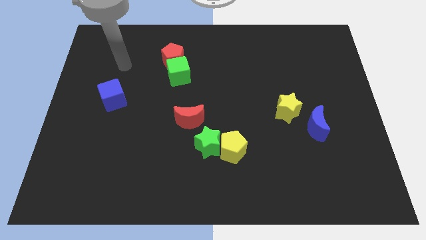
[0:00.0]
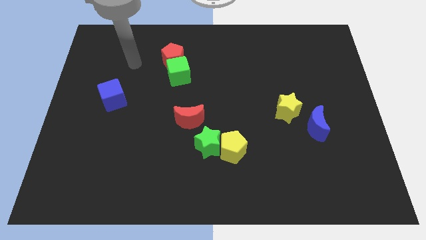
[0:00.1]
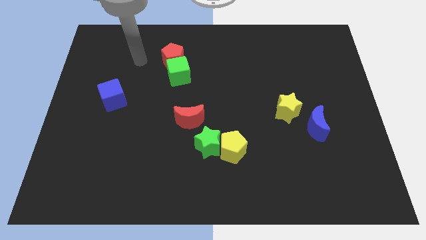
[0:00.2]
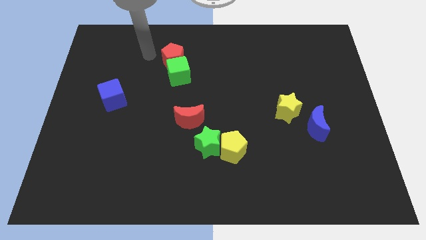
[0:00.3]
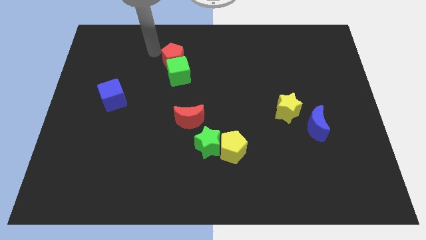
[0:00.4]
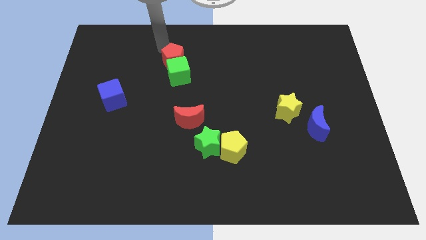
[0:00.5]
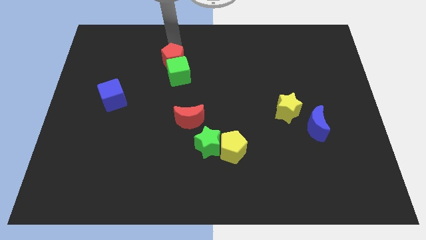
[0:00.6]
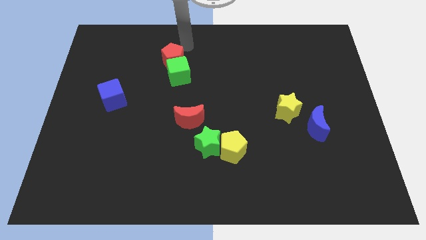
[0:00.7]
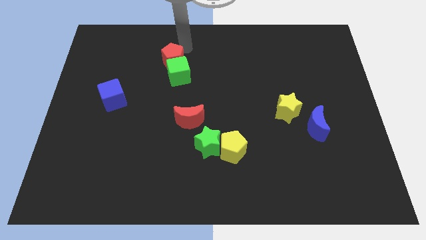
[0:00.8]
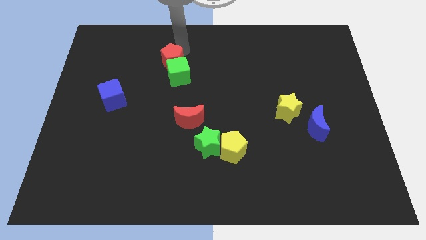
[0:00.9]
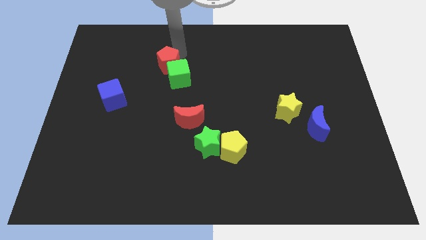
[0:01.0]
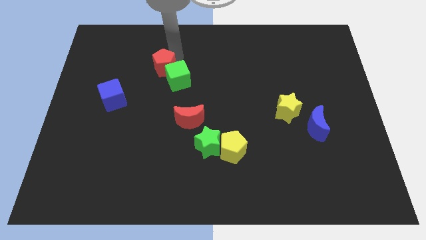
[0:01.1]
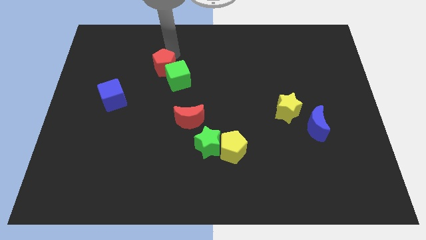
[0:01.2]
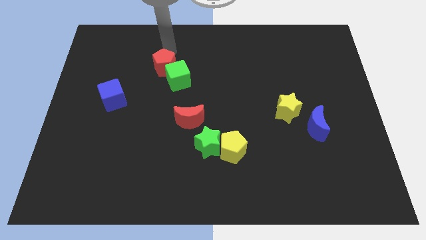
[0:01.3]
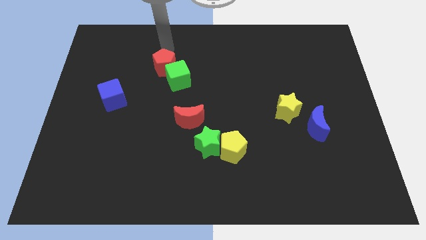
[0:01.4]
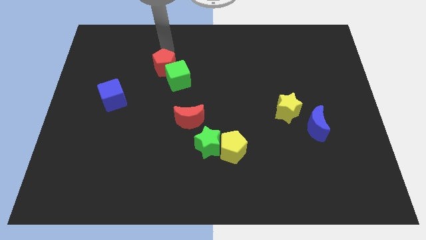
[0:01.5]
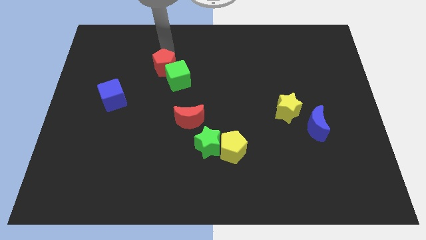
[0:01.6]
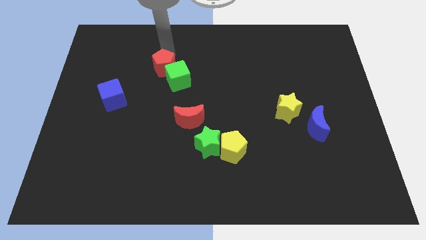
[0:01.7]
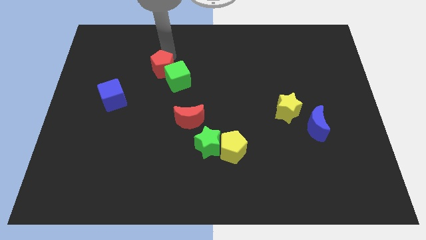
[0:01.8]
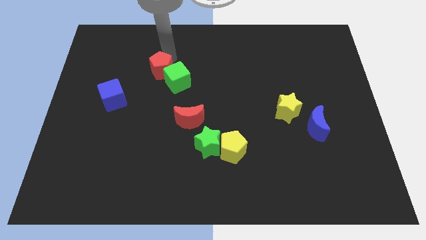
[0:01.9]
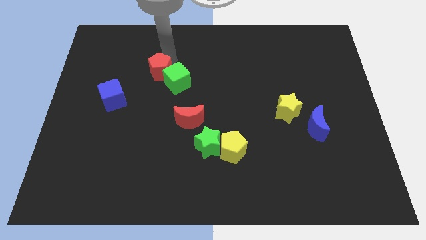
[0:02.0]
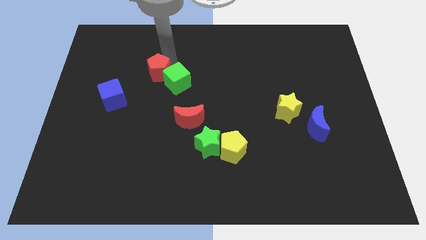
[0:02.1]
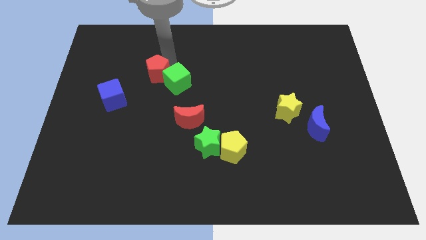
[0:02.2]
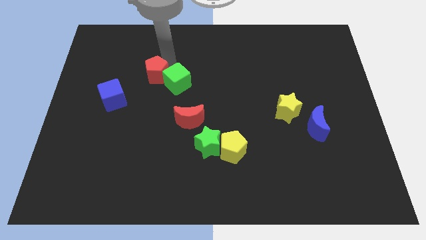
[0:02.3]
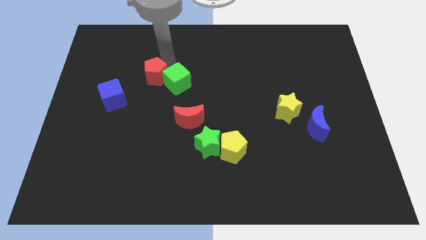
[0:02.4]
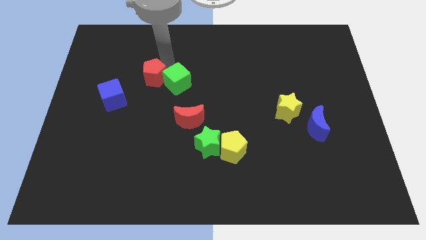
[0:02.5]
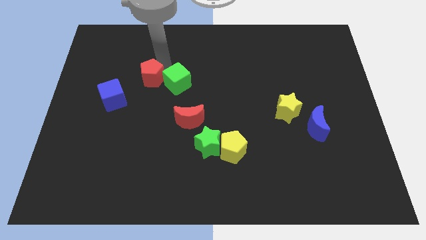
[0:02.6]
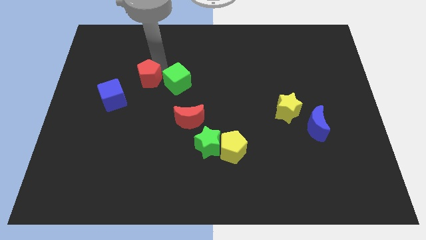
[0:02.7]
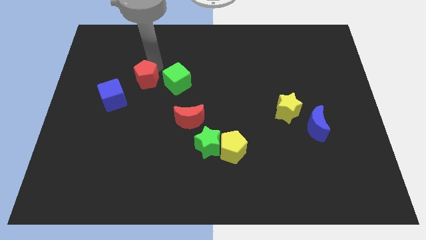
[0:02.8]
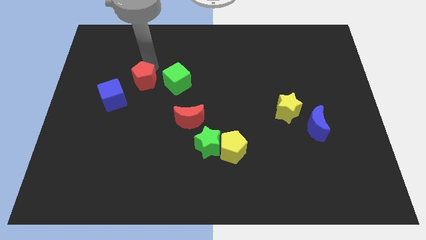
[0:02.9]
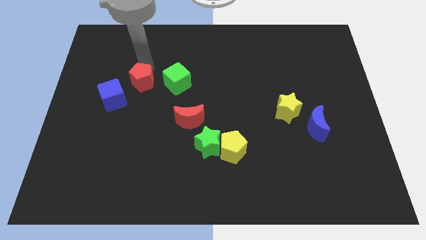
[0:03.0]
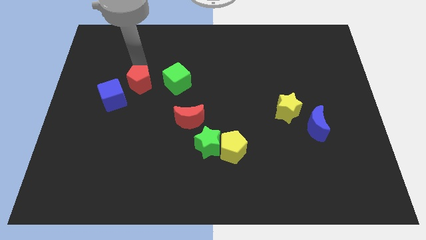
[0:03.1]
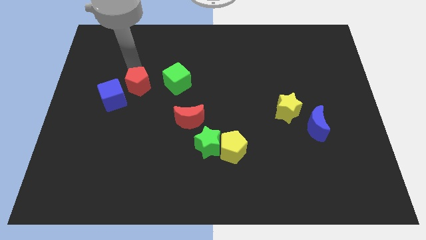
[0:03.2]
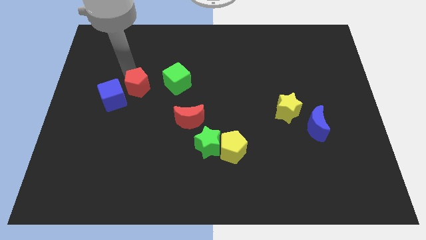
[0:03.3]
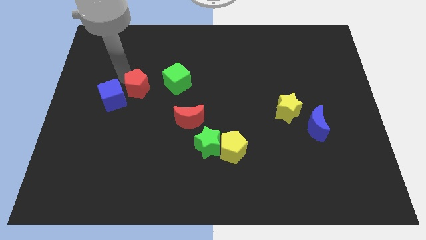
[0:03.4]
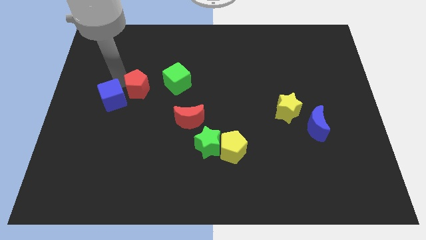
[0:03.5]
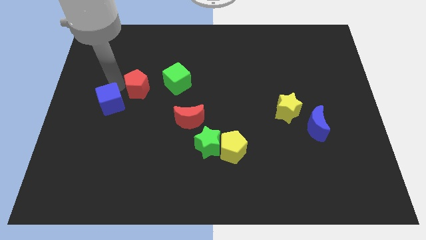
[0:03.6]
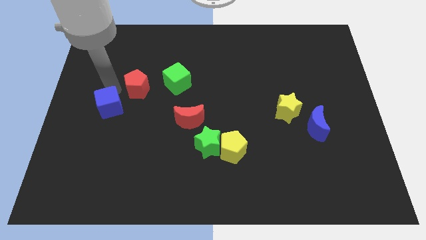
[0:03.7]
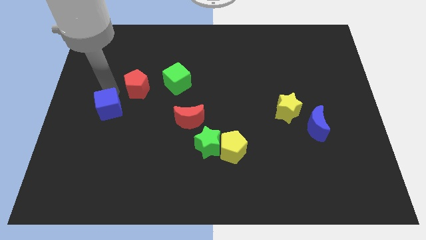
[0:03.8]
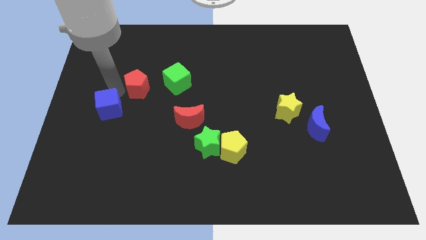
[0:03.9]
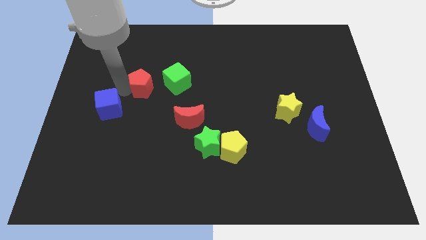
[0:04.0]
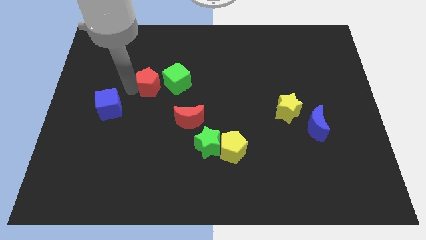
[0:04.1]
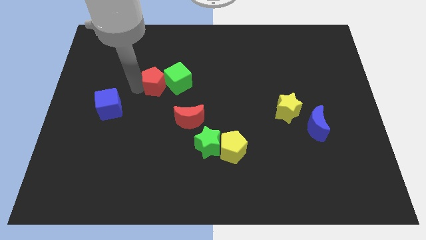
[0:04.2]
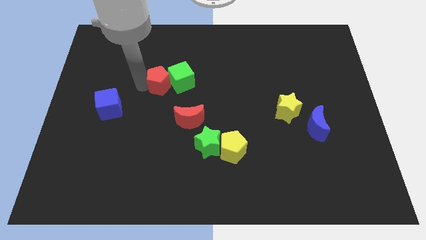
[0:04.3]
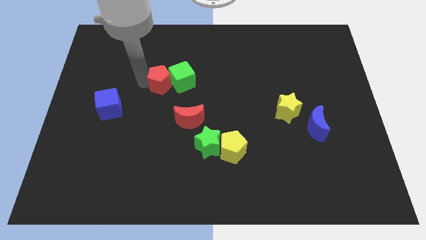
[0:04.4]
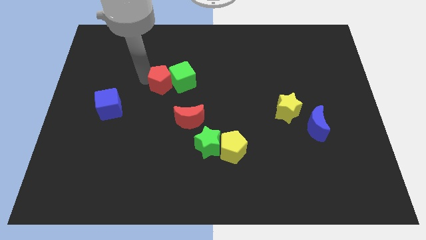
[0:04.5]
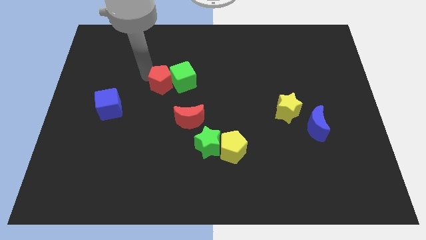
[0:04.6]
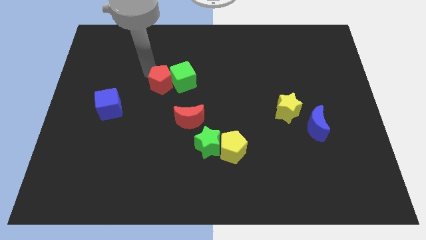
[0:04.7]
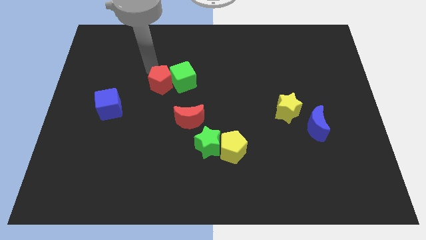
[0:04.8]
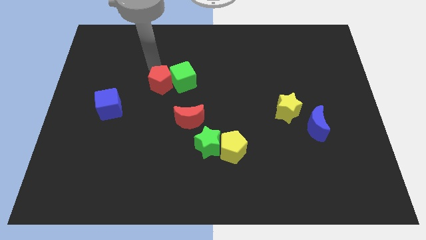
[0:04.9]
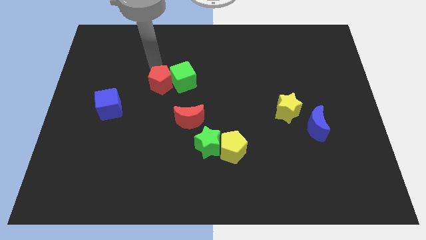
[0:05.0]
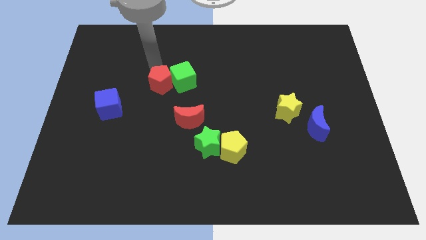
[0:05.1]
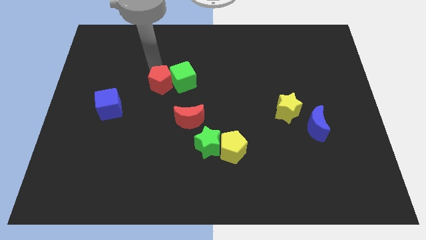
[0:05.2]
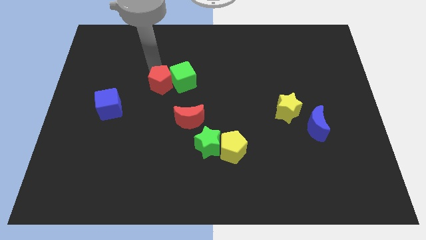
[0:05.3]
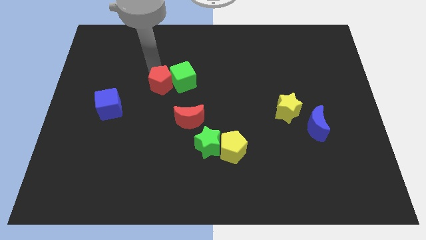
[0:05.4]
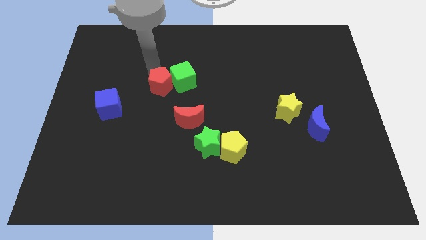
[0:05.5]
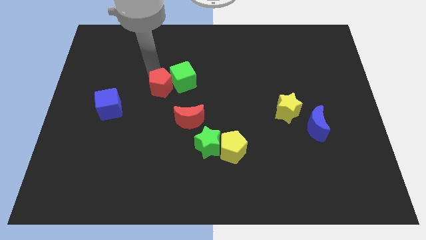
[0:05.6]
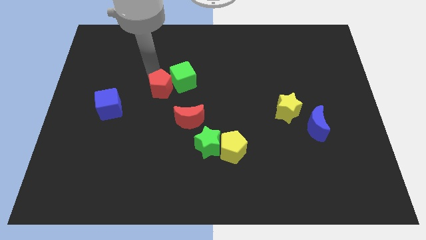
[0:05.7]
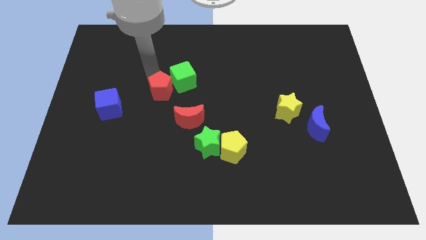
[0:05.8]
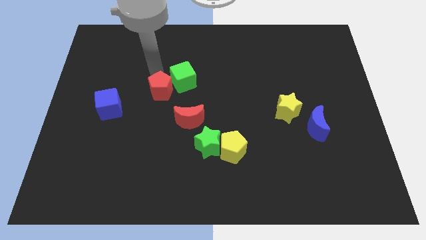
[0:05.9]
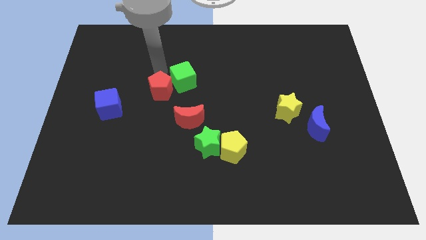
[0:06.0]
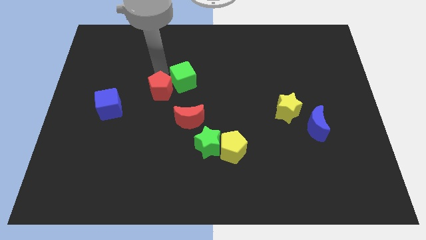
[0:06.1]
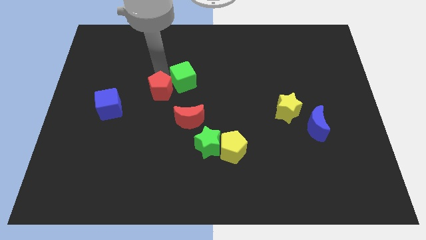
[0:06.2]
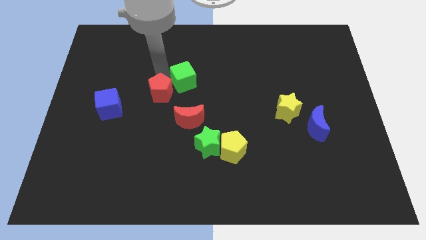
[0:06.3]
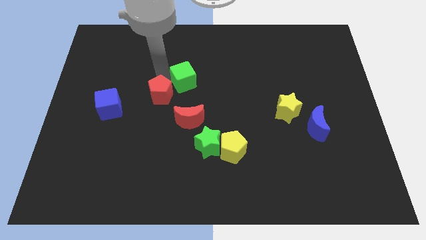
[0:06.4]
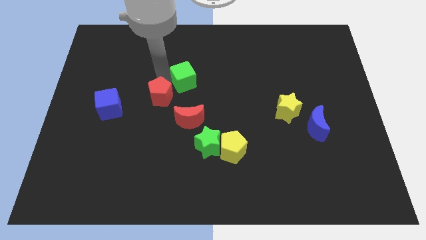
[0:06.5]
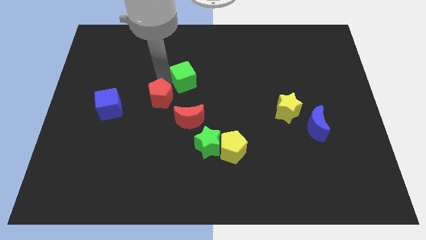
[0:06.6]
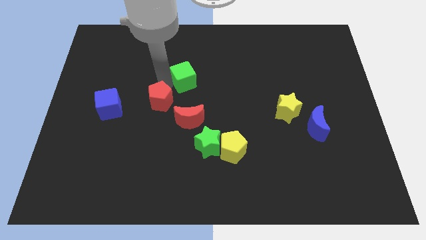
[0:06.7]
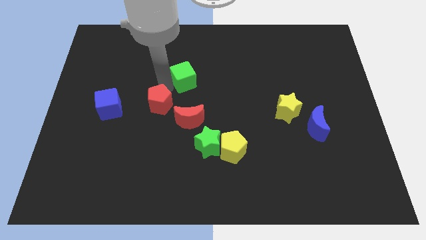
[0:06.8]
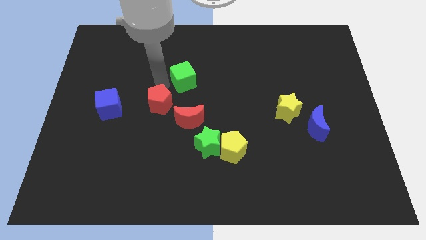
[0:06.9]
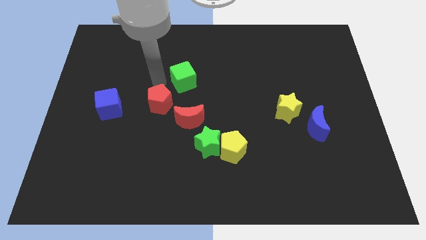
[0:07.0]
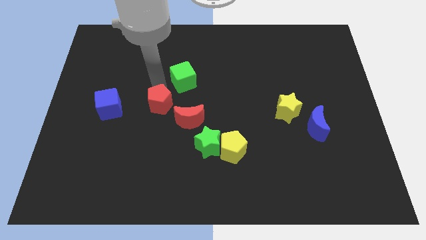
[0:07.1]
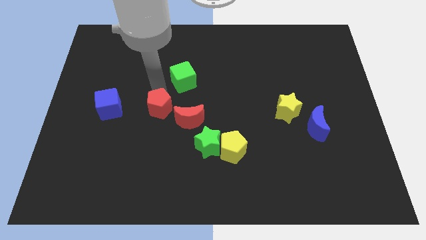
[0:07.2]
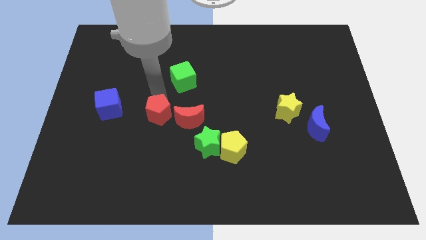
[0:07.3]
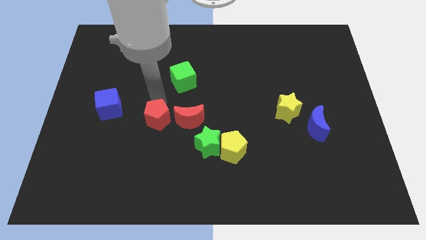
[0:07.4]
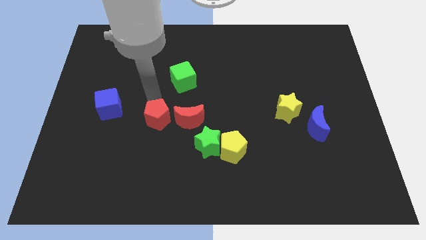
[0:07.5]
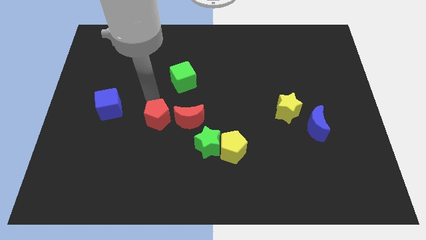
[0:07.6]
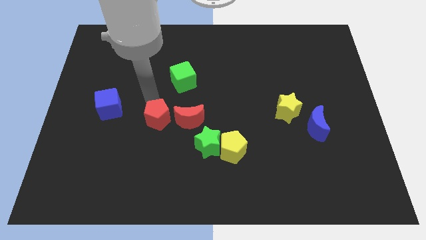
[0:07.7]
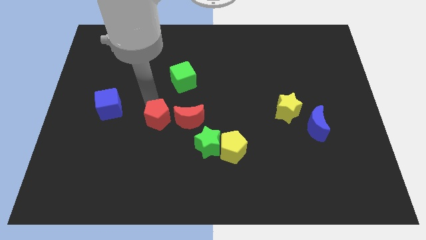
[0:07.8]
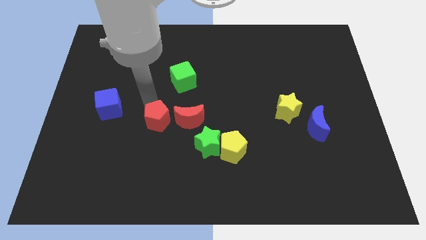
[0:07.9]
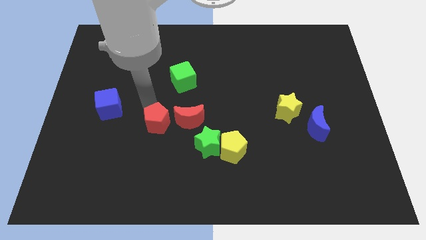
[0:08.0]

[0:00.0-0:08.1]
move the red pentagon downwards
